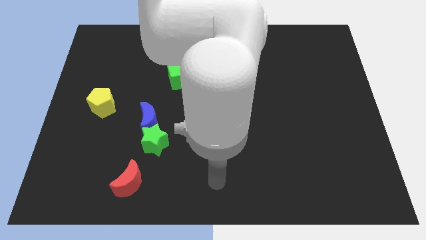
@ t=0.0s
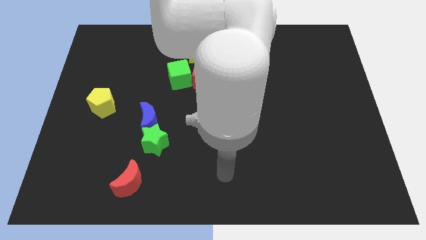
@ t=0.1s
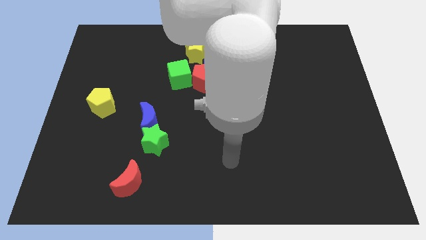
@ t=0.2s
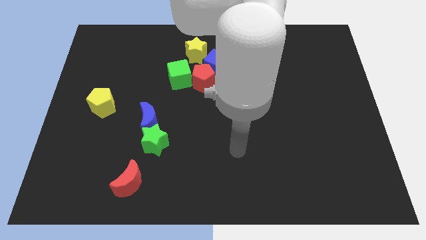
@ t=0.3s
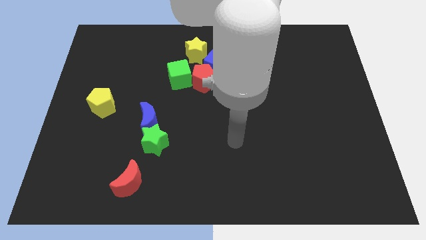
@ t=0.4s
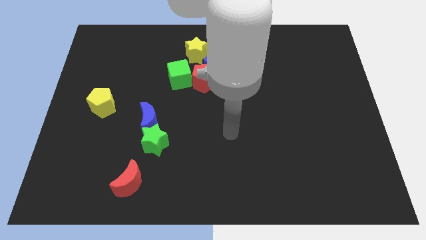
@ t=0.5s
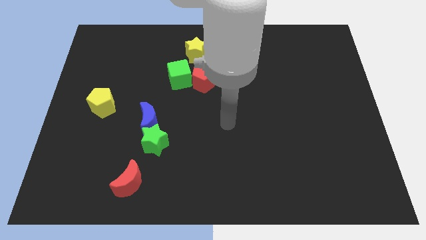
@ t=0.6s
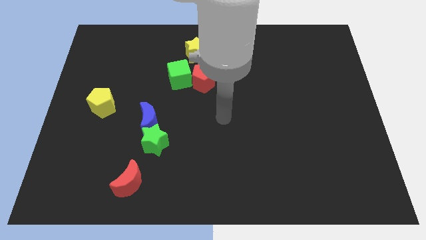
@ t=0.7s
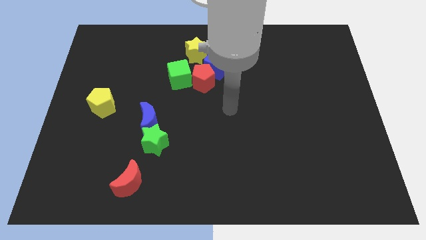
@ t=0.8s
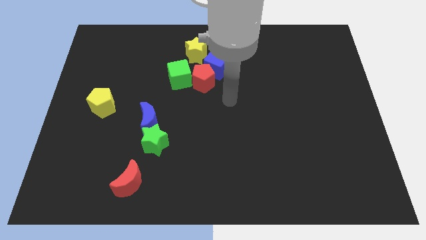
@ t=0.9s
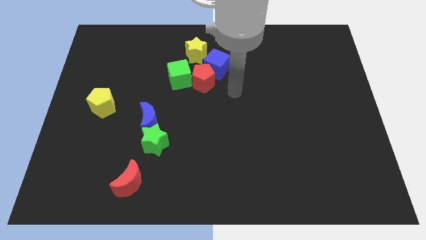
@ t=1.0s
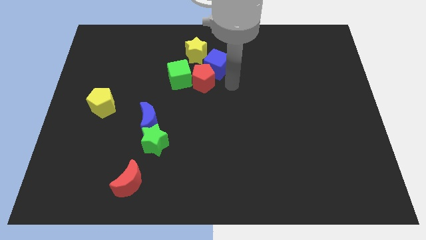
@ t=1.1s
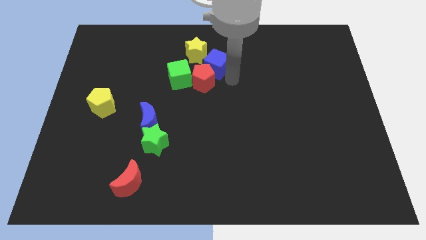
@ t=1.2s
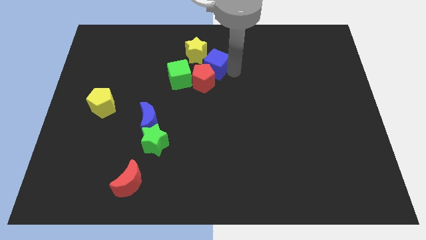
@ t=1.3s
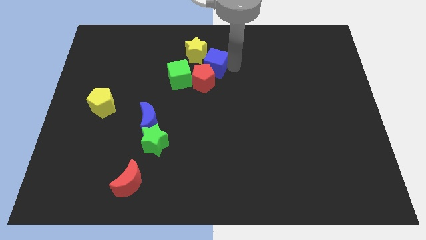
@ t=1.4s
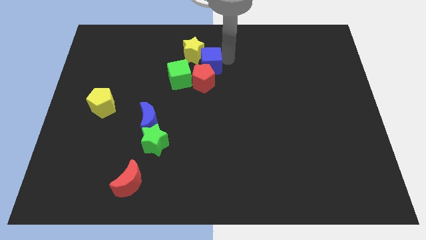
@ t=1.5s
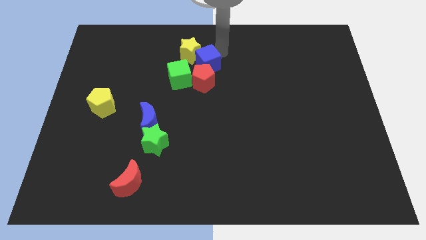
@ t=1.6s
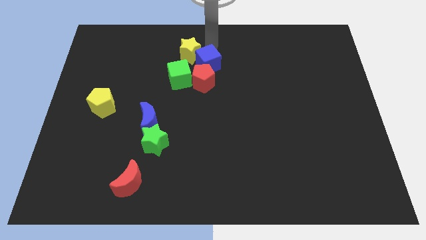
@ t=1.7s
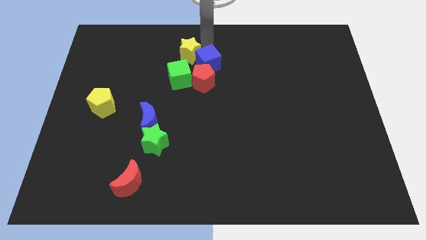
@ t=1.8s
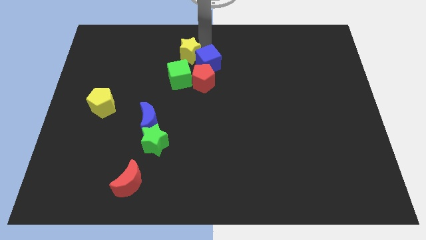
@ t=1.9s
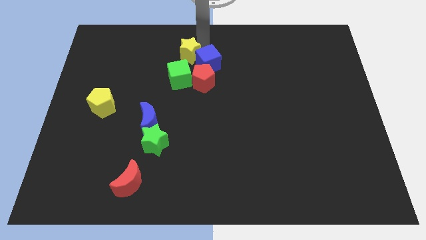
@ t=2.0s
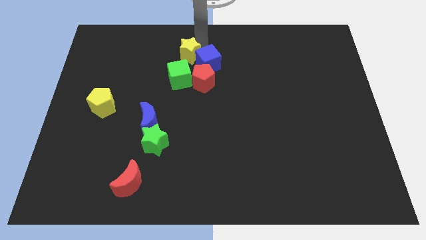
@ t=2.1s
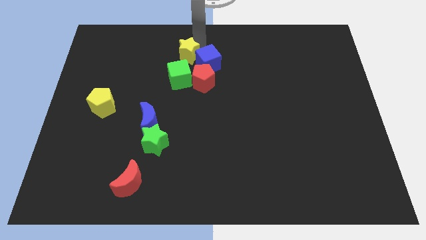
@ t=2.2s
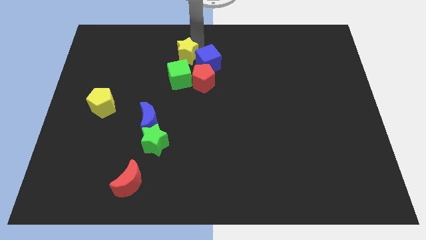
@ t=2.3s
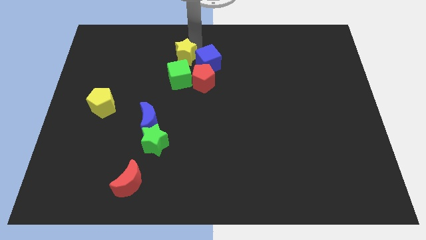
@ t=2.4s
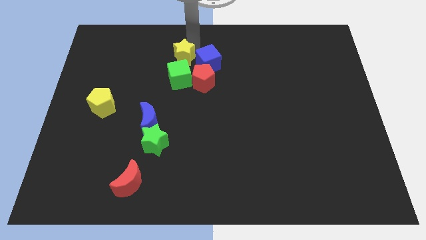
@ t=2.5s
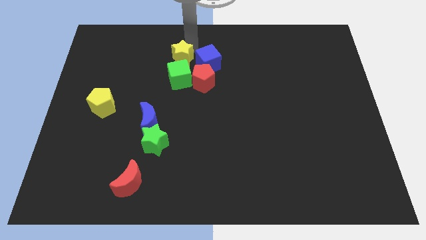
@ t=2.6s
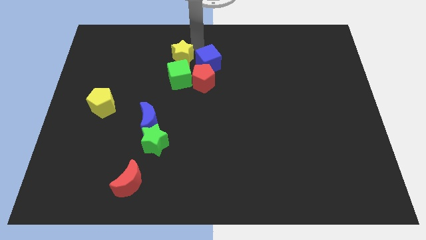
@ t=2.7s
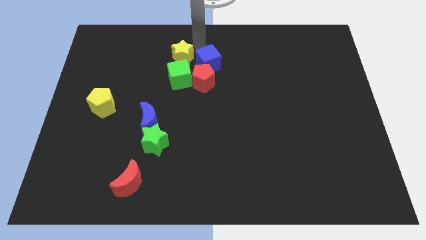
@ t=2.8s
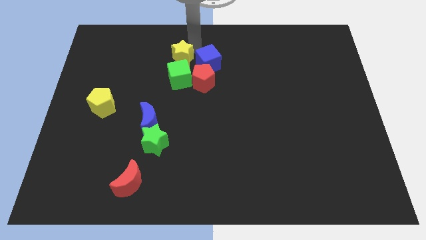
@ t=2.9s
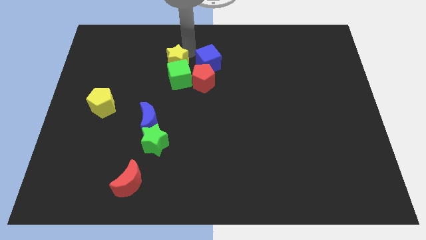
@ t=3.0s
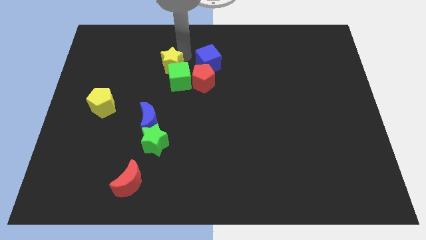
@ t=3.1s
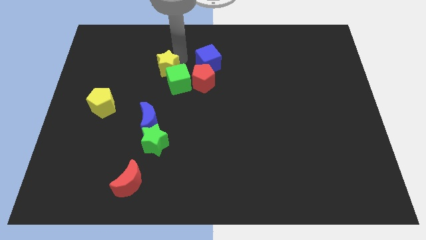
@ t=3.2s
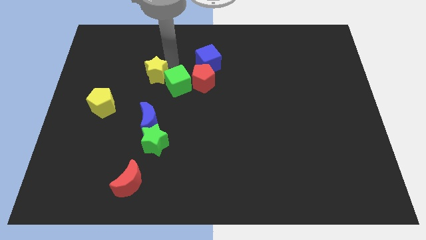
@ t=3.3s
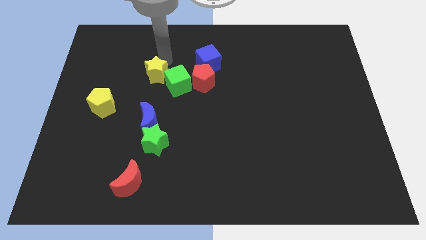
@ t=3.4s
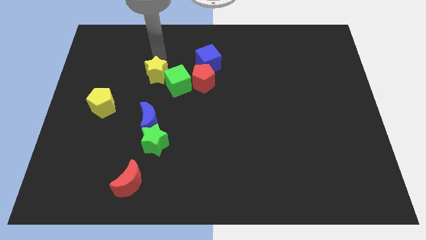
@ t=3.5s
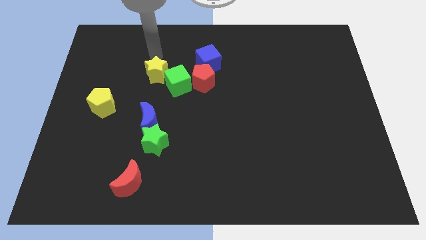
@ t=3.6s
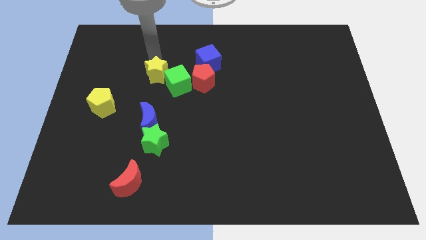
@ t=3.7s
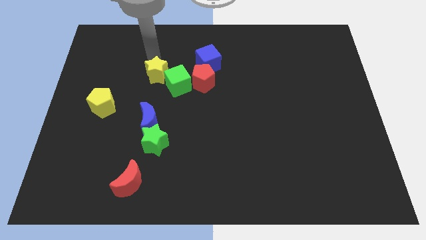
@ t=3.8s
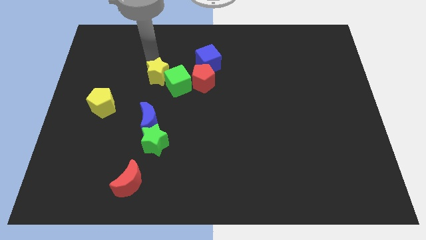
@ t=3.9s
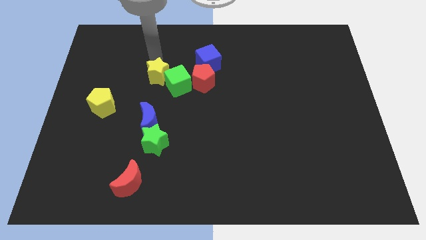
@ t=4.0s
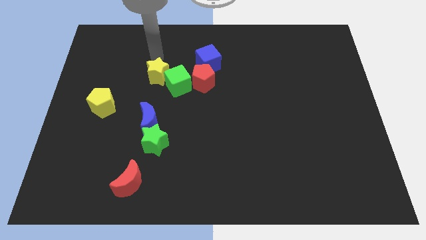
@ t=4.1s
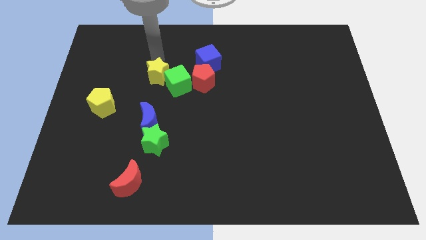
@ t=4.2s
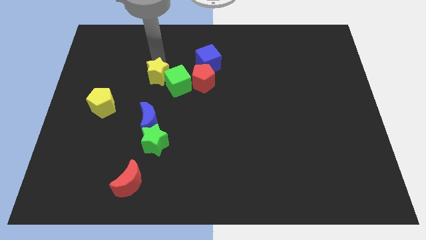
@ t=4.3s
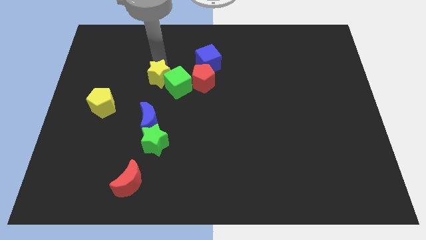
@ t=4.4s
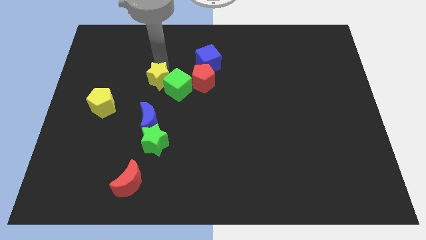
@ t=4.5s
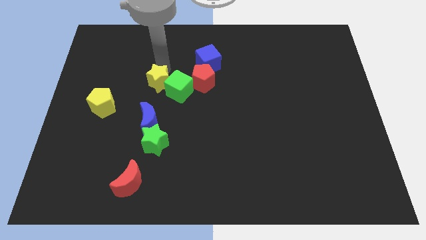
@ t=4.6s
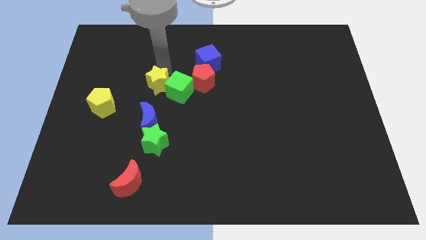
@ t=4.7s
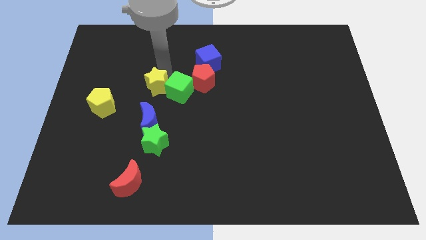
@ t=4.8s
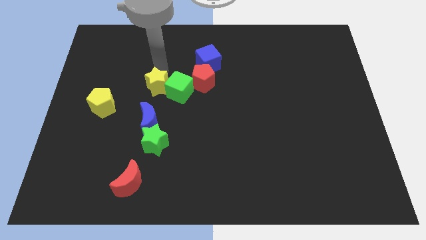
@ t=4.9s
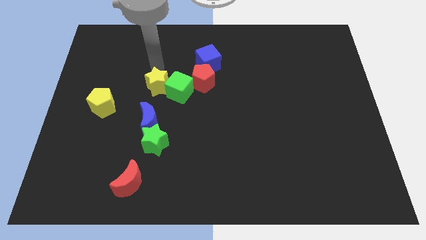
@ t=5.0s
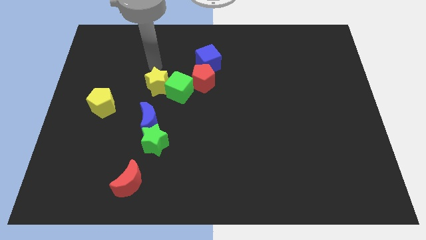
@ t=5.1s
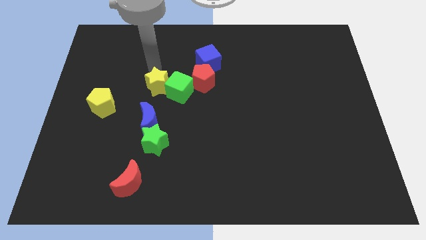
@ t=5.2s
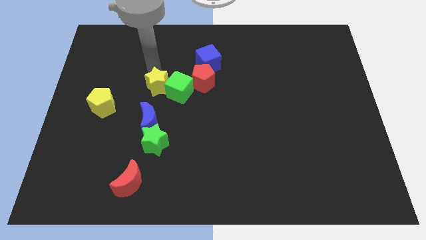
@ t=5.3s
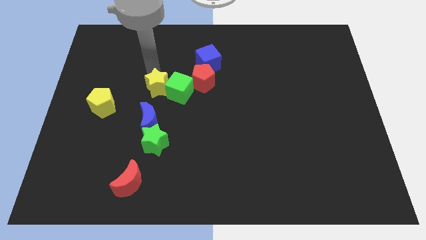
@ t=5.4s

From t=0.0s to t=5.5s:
move the yellow star to the top of the green star

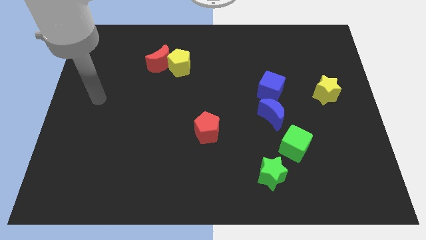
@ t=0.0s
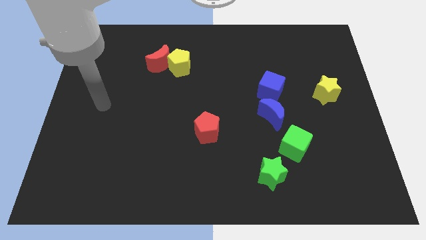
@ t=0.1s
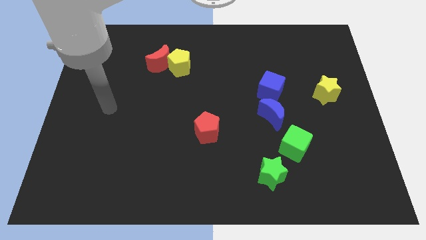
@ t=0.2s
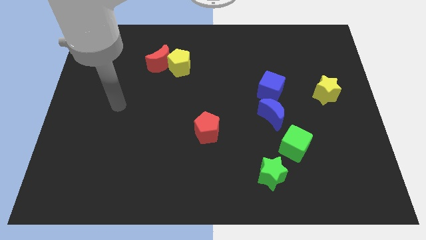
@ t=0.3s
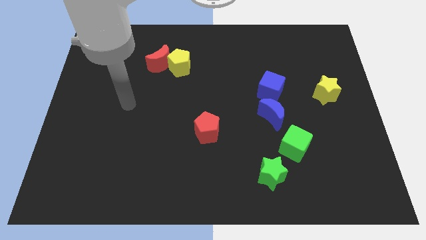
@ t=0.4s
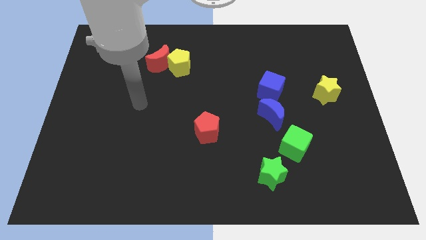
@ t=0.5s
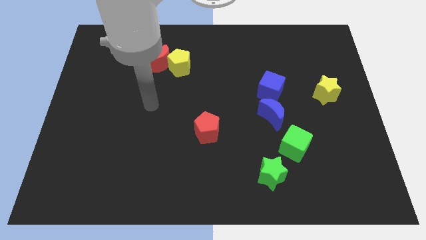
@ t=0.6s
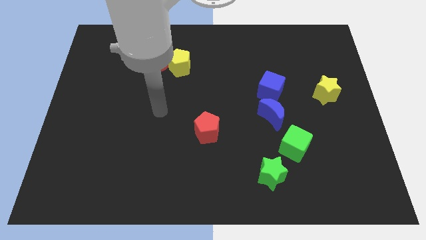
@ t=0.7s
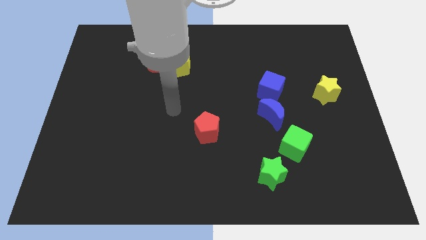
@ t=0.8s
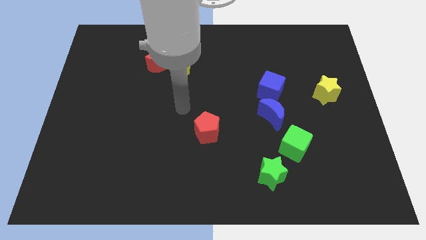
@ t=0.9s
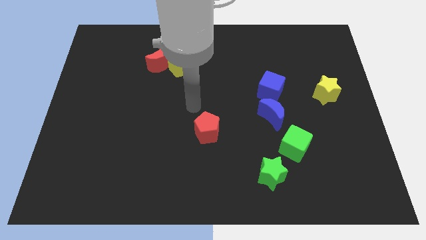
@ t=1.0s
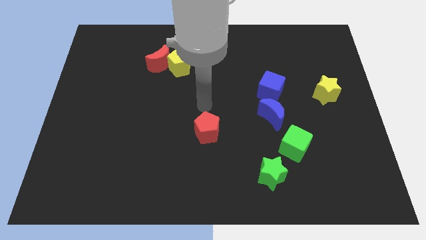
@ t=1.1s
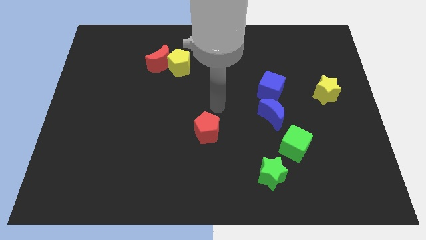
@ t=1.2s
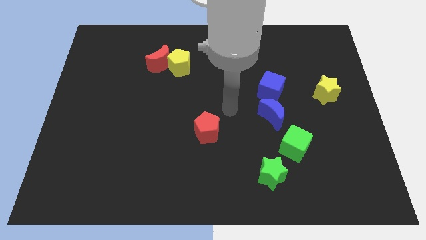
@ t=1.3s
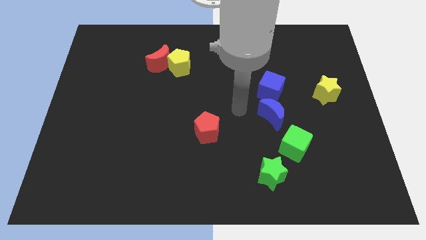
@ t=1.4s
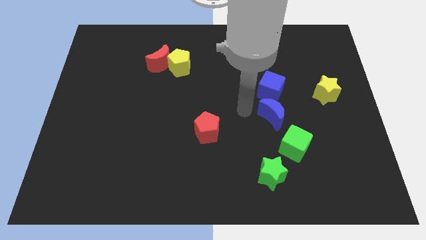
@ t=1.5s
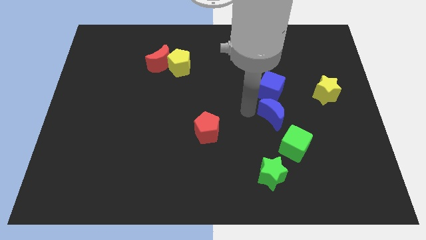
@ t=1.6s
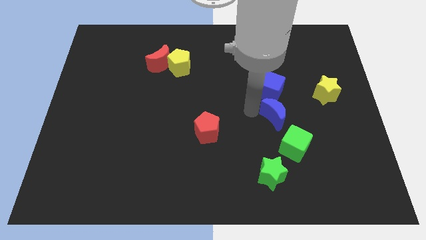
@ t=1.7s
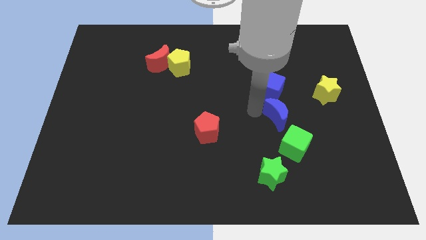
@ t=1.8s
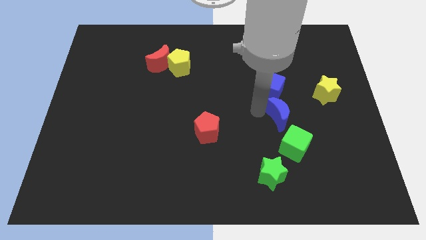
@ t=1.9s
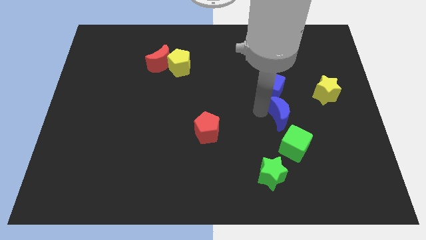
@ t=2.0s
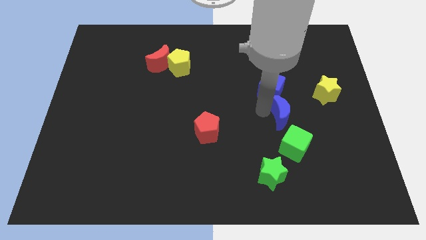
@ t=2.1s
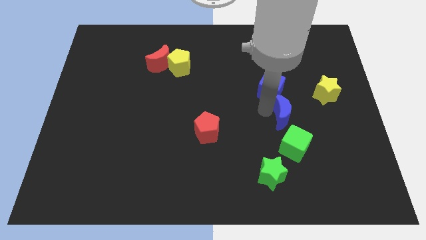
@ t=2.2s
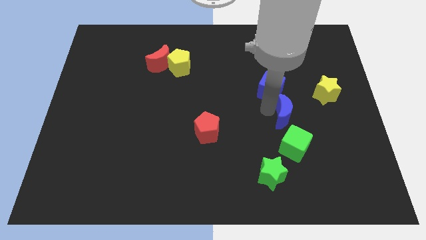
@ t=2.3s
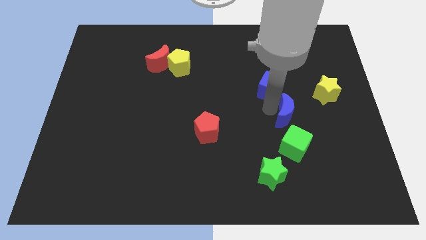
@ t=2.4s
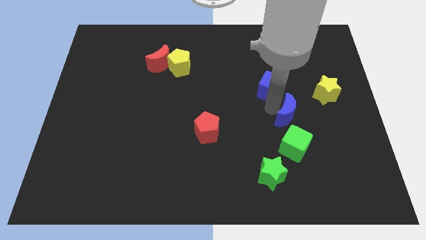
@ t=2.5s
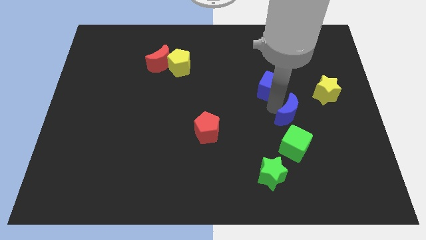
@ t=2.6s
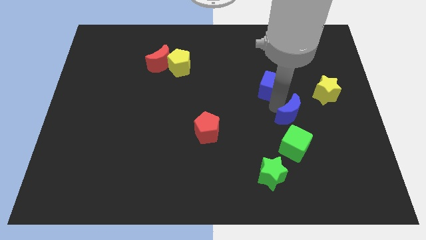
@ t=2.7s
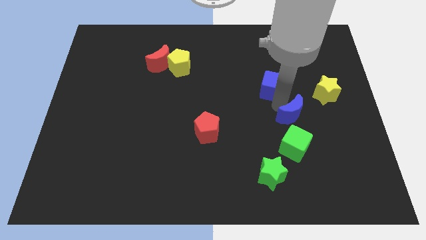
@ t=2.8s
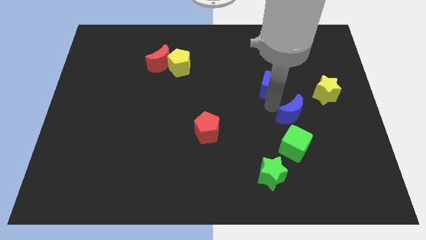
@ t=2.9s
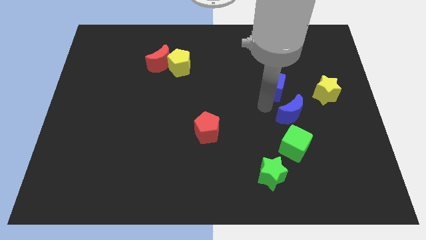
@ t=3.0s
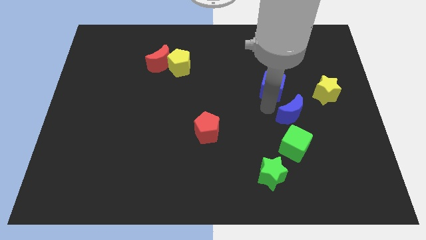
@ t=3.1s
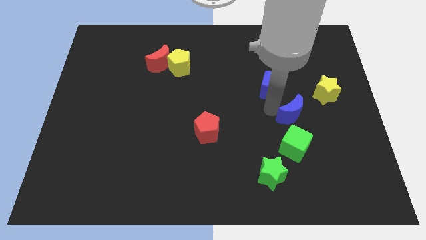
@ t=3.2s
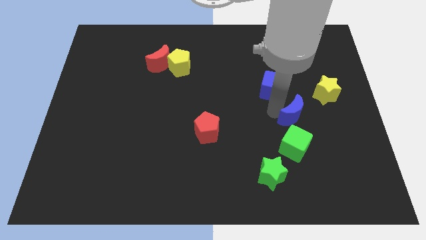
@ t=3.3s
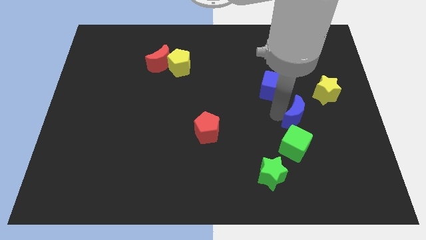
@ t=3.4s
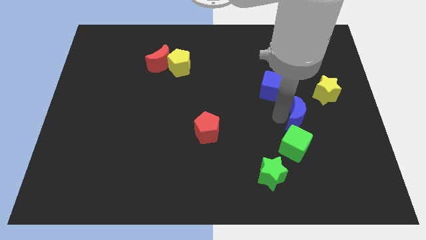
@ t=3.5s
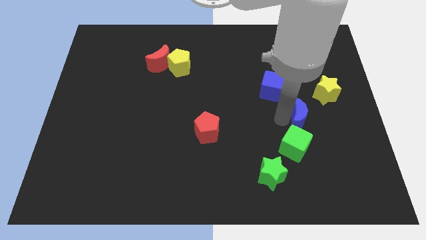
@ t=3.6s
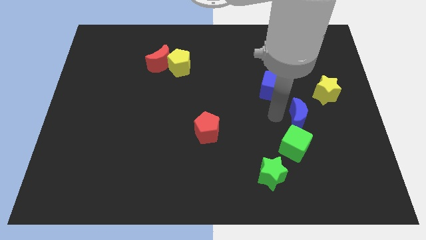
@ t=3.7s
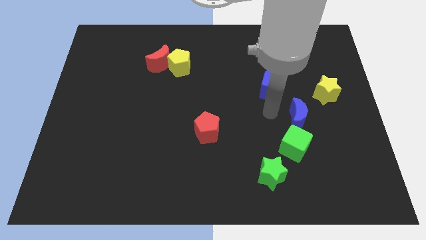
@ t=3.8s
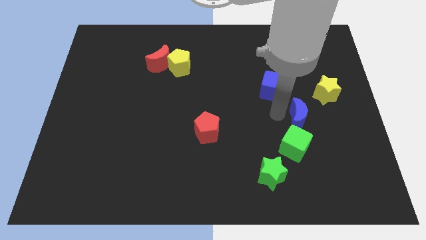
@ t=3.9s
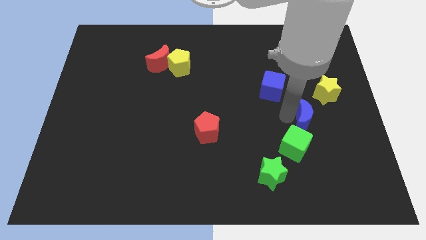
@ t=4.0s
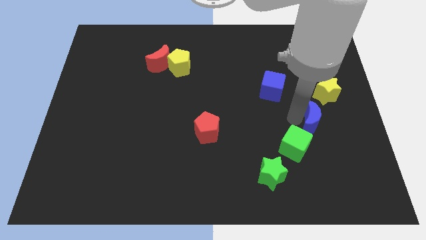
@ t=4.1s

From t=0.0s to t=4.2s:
push the blue moon below the yellow star
